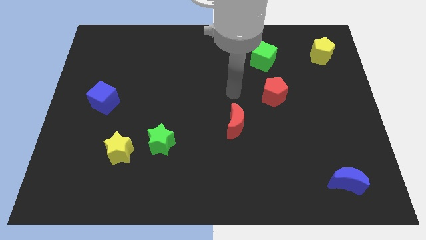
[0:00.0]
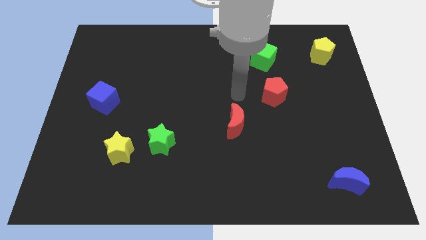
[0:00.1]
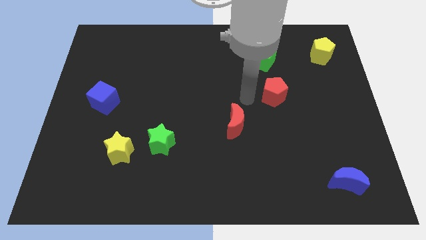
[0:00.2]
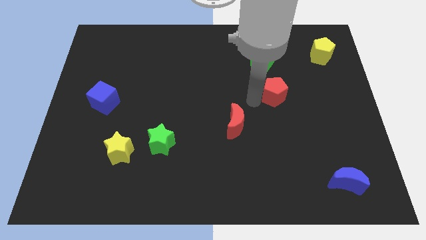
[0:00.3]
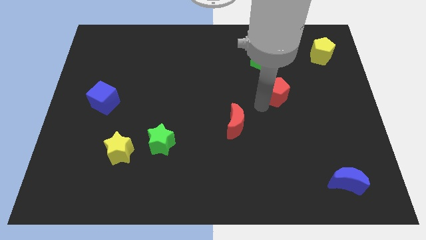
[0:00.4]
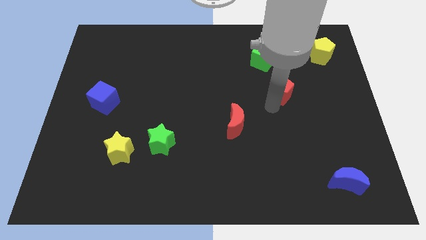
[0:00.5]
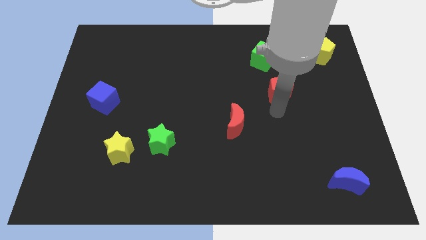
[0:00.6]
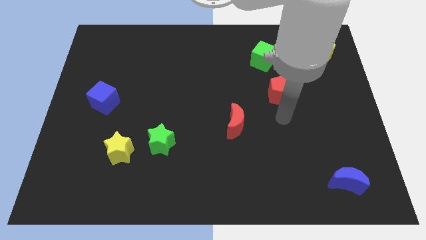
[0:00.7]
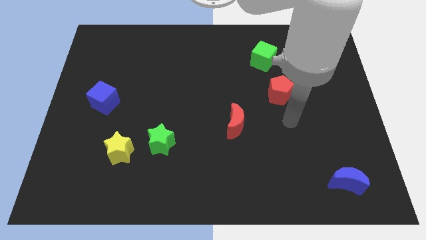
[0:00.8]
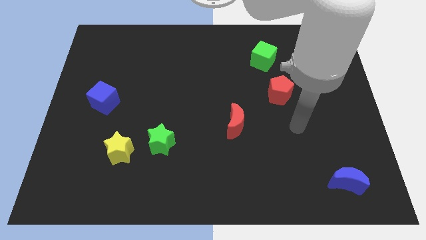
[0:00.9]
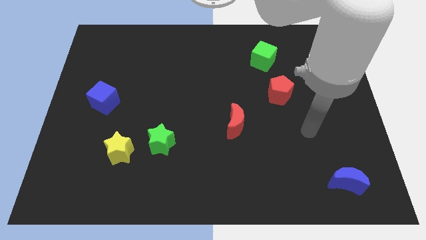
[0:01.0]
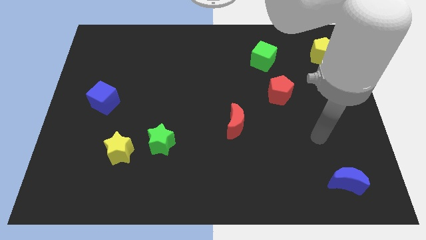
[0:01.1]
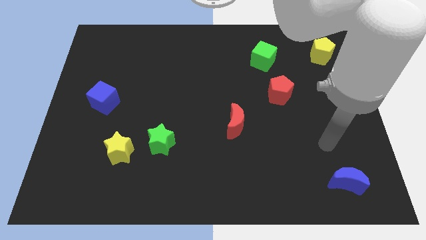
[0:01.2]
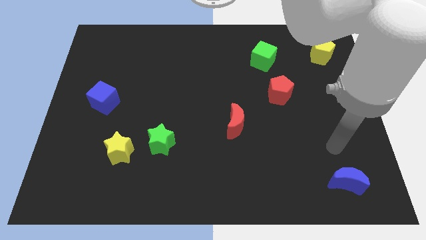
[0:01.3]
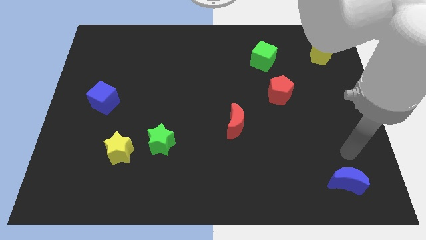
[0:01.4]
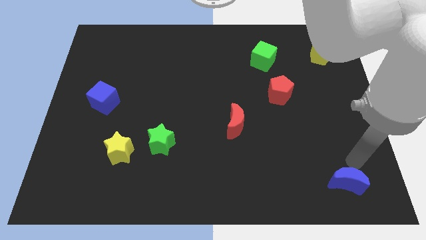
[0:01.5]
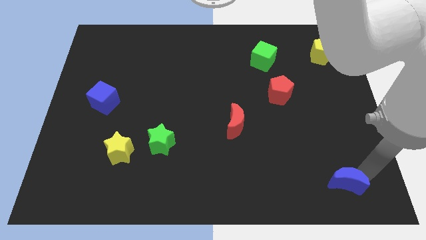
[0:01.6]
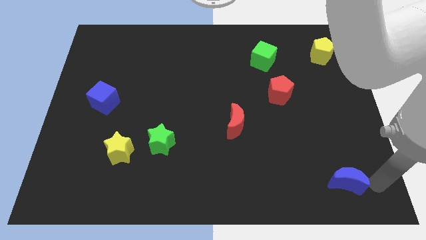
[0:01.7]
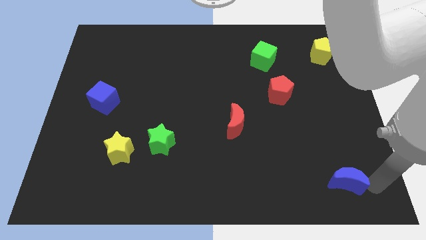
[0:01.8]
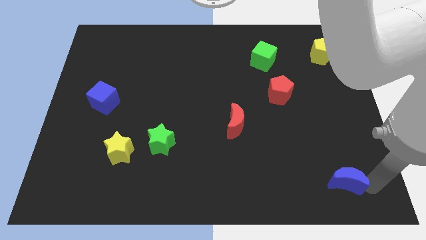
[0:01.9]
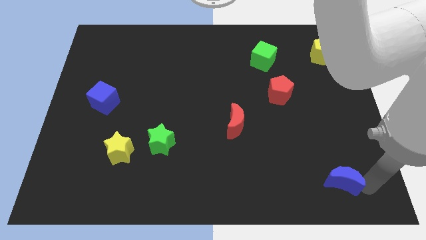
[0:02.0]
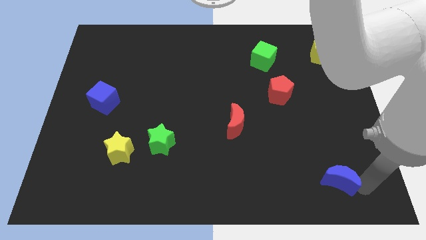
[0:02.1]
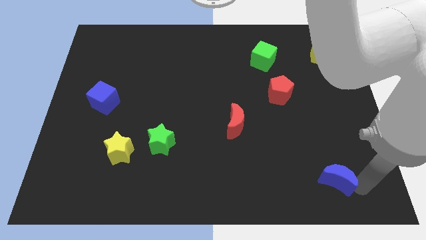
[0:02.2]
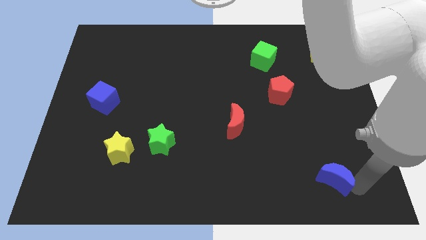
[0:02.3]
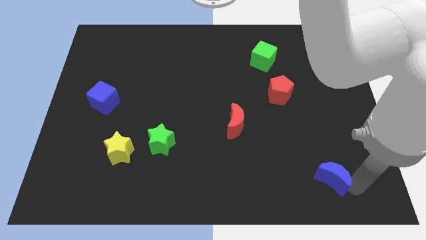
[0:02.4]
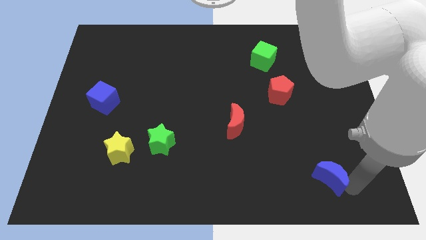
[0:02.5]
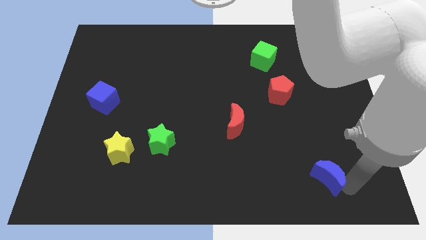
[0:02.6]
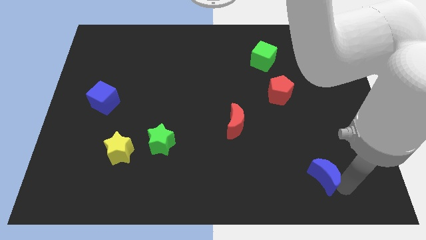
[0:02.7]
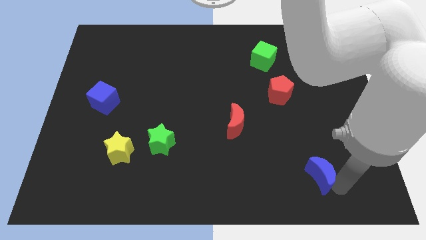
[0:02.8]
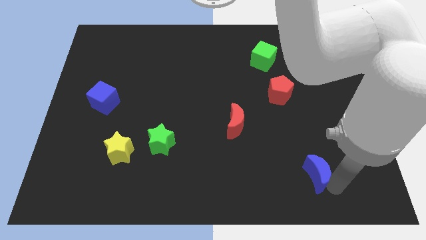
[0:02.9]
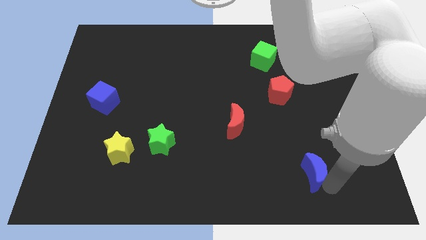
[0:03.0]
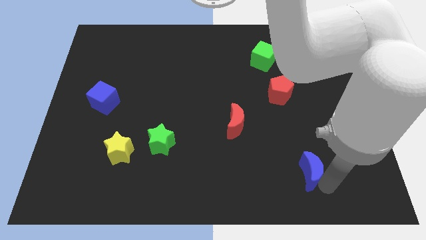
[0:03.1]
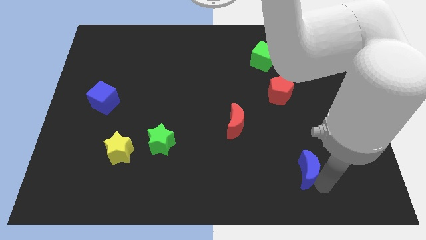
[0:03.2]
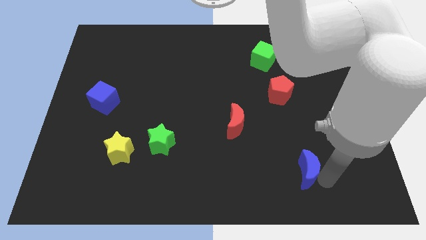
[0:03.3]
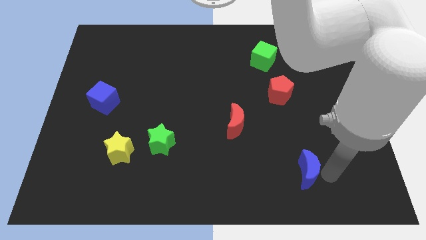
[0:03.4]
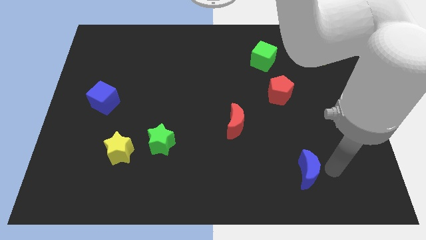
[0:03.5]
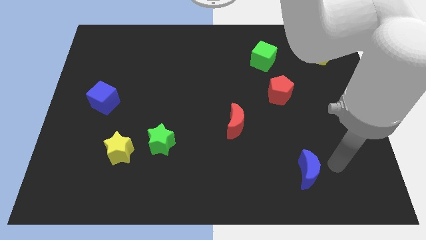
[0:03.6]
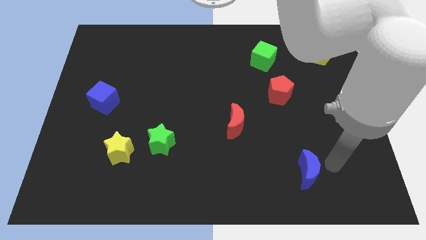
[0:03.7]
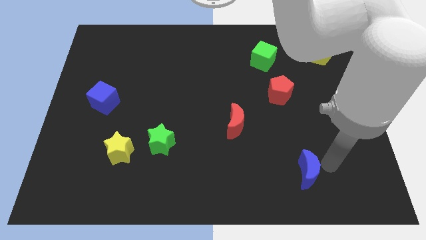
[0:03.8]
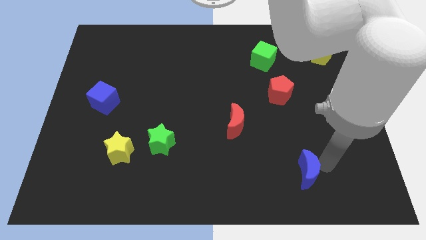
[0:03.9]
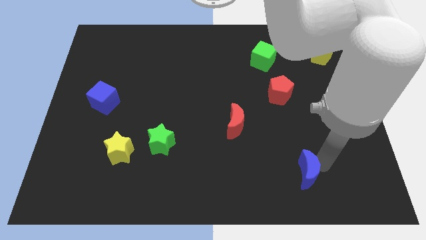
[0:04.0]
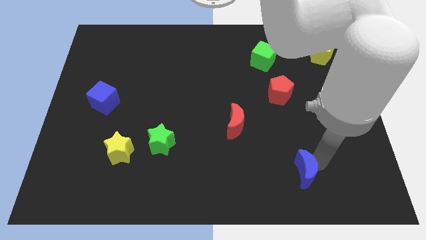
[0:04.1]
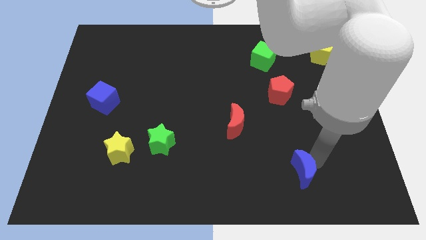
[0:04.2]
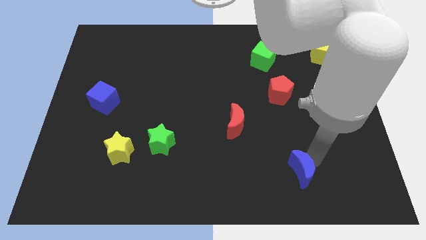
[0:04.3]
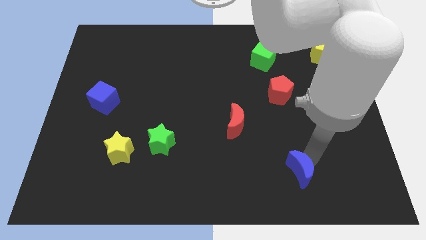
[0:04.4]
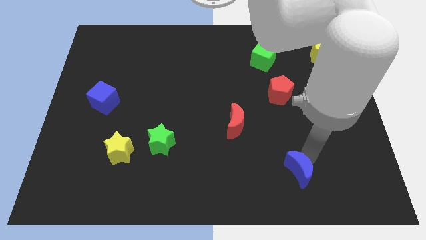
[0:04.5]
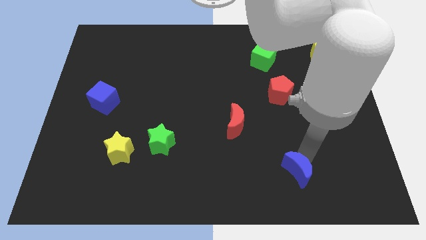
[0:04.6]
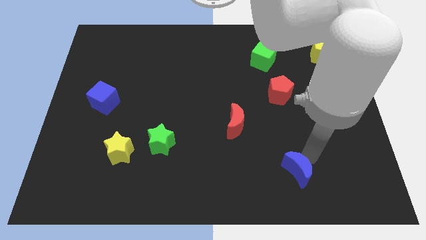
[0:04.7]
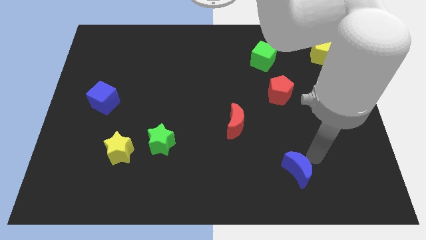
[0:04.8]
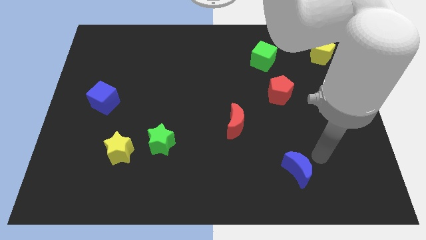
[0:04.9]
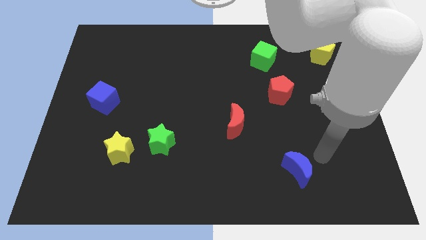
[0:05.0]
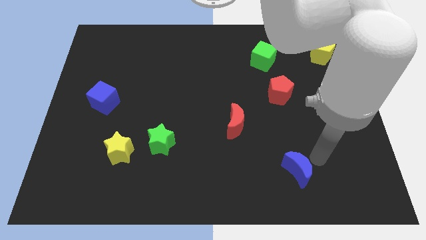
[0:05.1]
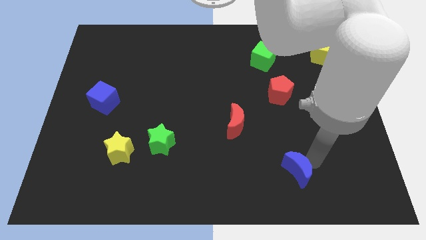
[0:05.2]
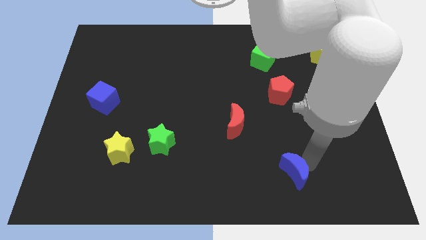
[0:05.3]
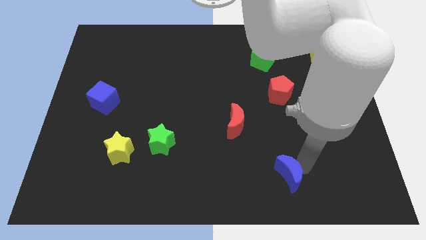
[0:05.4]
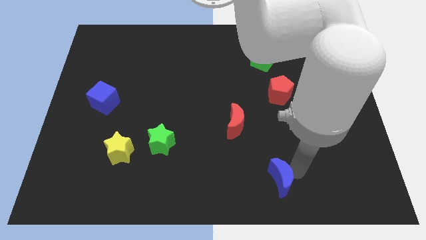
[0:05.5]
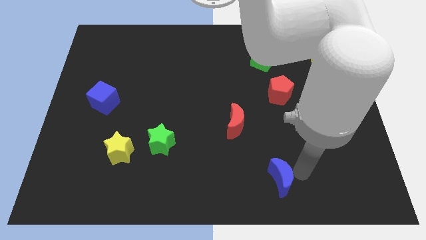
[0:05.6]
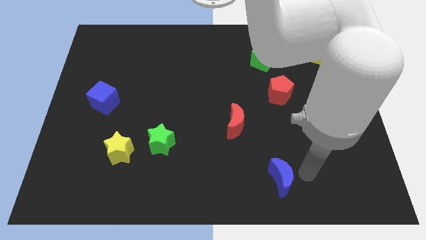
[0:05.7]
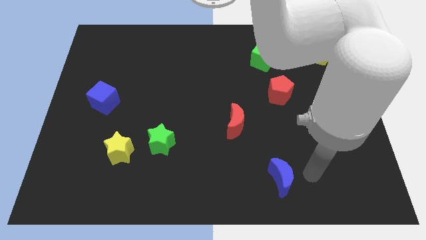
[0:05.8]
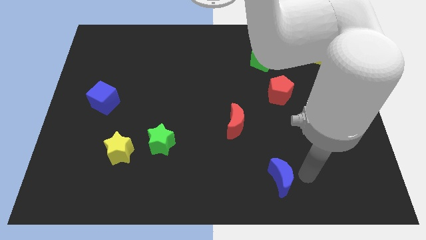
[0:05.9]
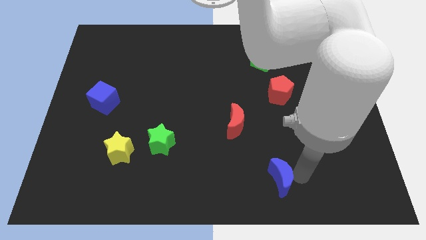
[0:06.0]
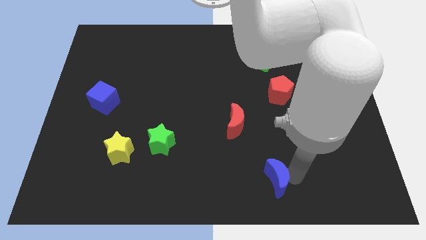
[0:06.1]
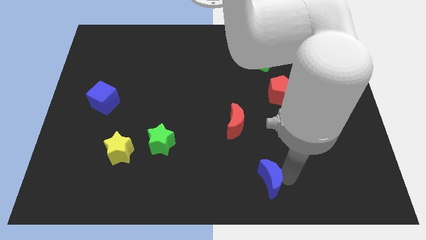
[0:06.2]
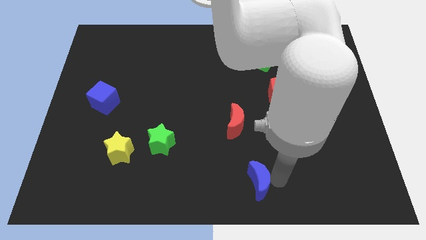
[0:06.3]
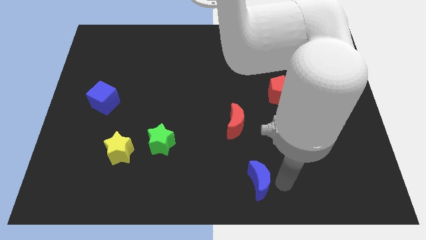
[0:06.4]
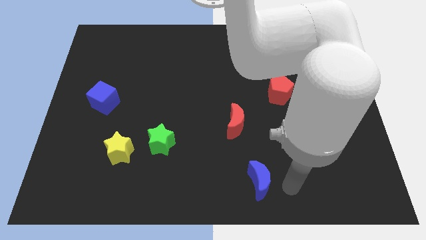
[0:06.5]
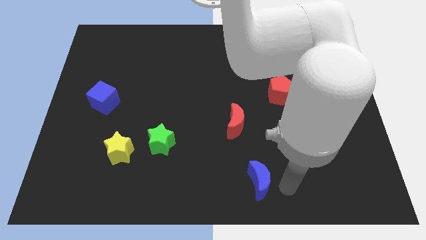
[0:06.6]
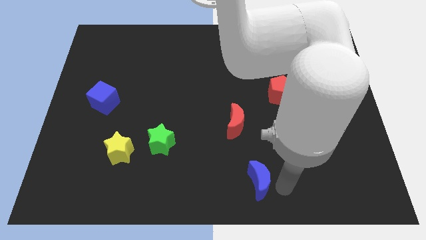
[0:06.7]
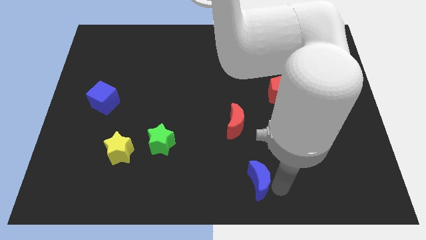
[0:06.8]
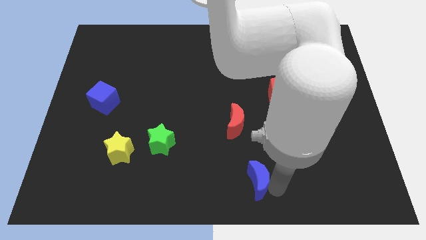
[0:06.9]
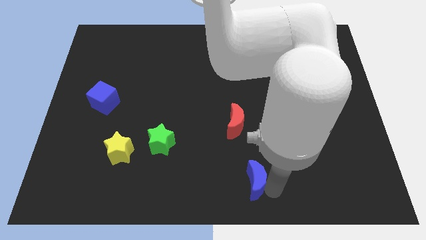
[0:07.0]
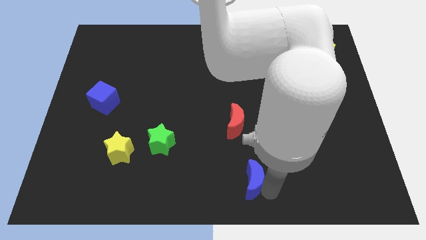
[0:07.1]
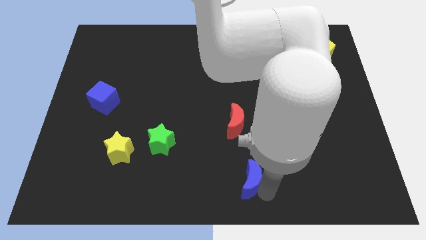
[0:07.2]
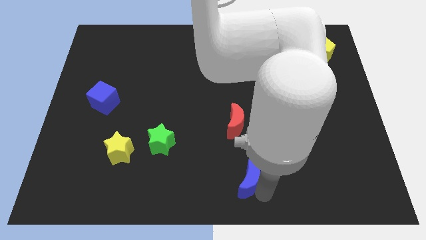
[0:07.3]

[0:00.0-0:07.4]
move the blue moon to the left

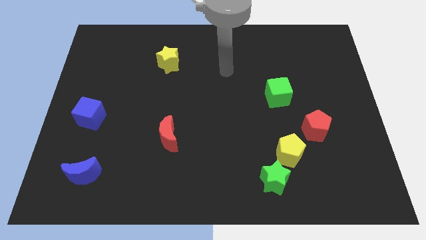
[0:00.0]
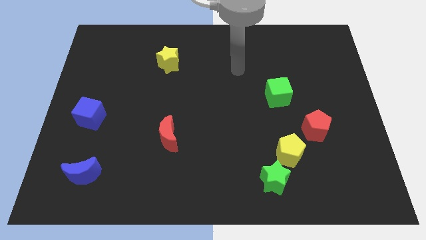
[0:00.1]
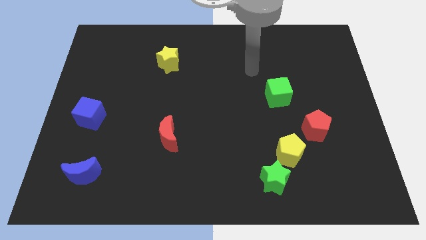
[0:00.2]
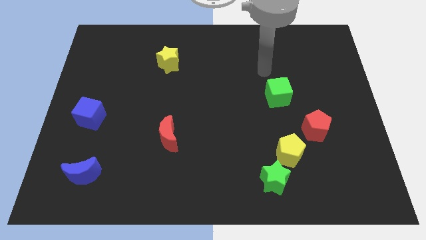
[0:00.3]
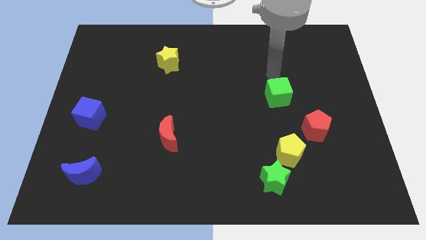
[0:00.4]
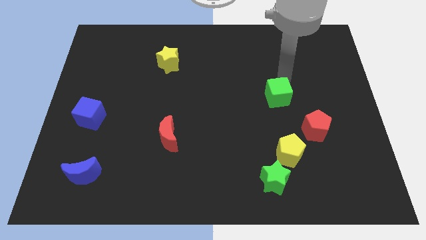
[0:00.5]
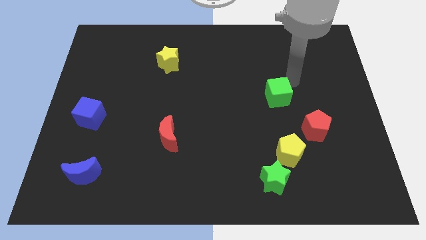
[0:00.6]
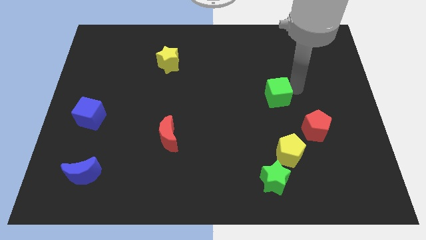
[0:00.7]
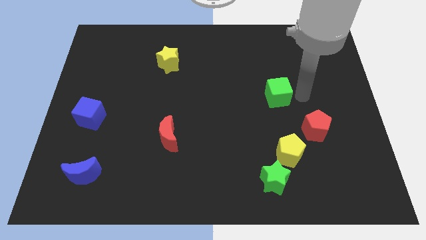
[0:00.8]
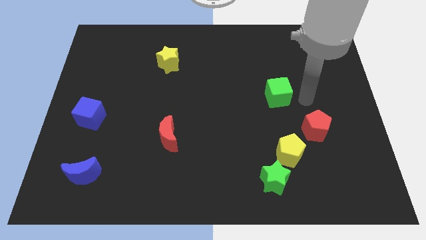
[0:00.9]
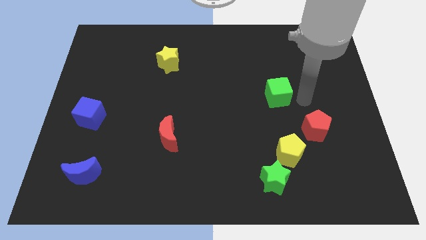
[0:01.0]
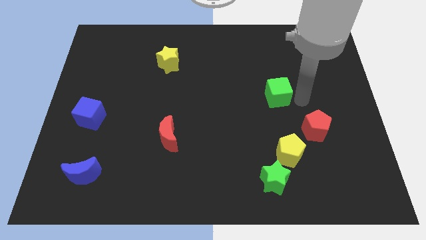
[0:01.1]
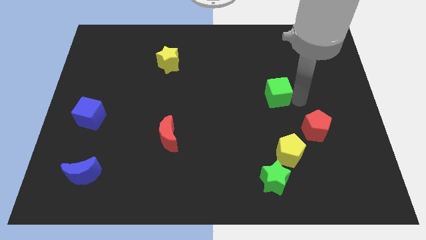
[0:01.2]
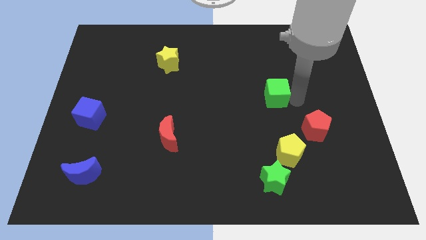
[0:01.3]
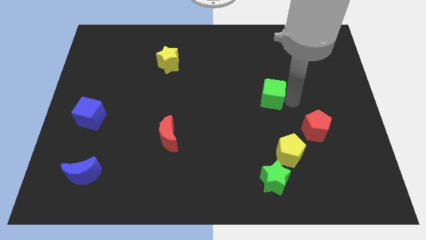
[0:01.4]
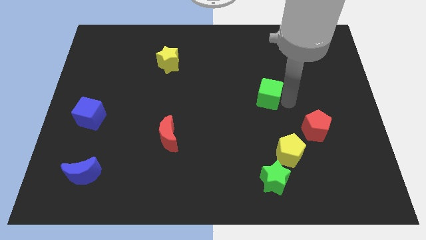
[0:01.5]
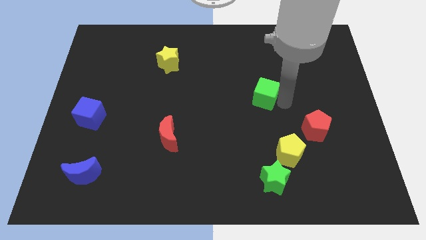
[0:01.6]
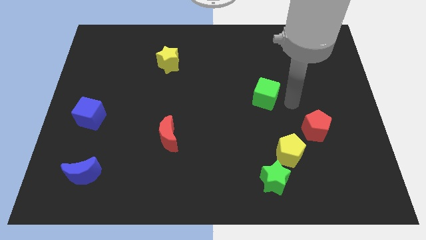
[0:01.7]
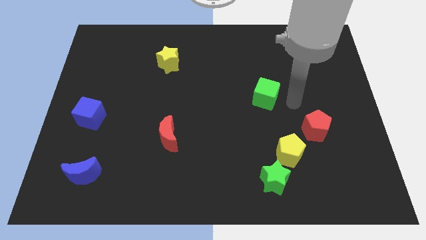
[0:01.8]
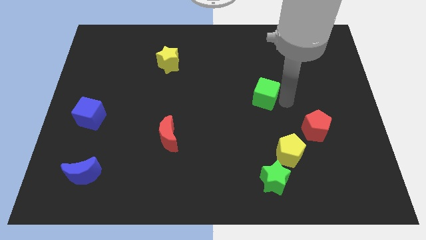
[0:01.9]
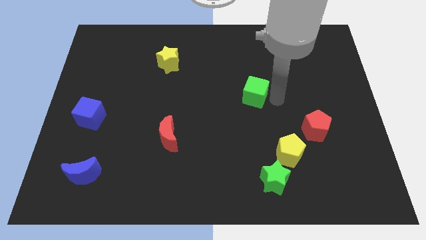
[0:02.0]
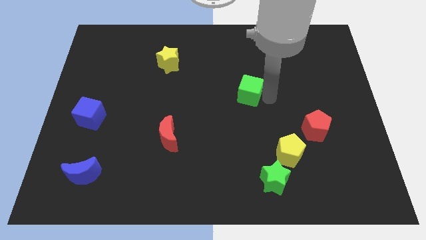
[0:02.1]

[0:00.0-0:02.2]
move the green cube left slightly
